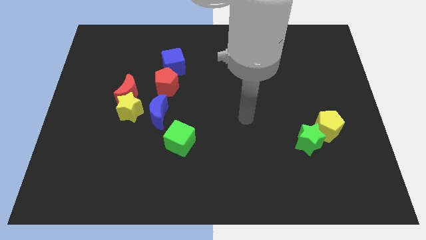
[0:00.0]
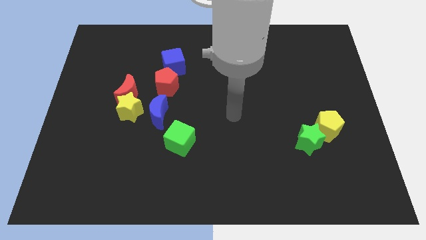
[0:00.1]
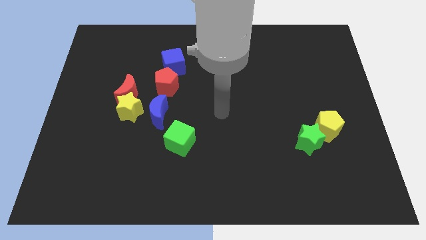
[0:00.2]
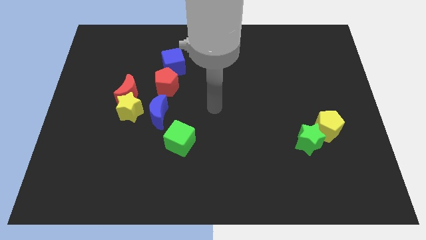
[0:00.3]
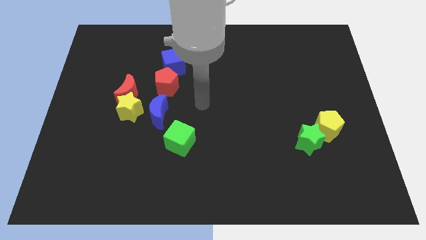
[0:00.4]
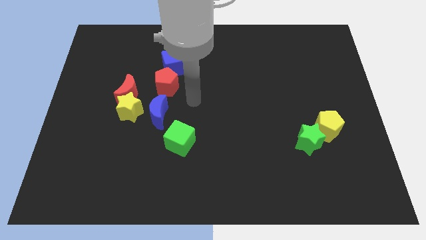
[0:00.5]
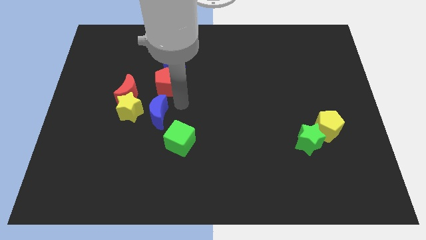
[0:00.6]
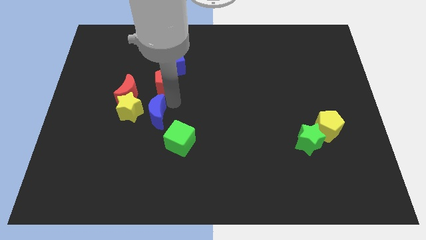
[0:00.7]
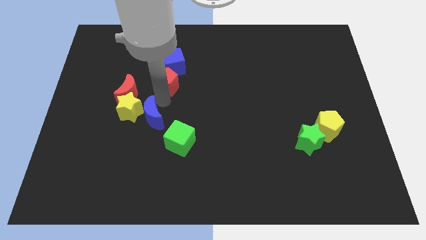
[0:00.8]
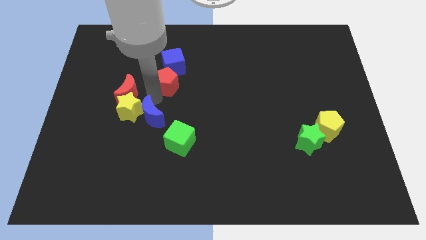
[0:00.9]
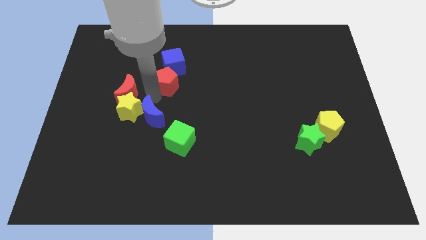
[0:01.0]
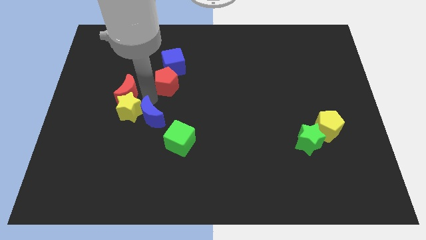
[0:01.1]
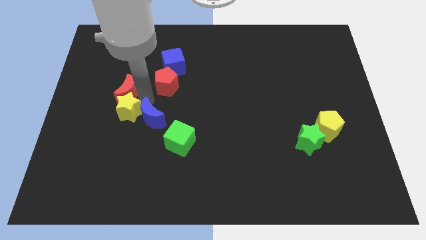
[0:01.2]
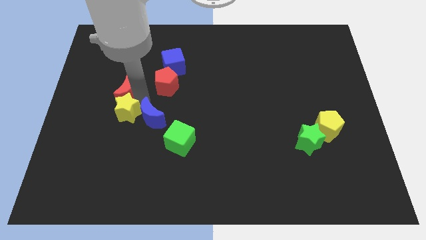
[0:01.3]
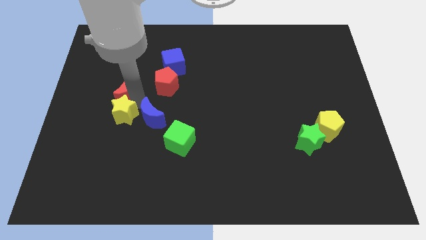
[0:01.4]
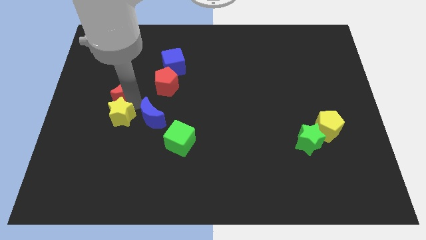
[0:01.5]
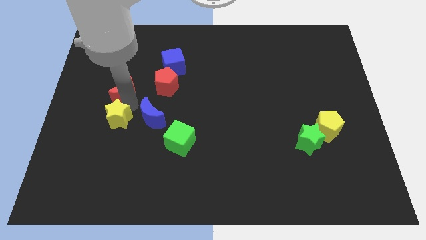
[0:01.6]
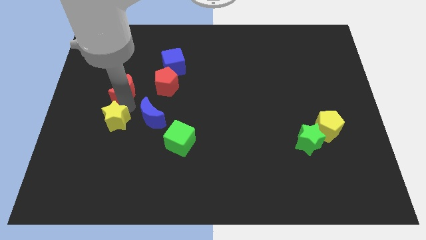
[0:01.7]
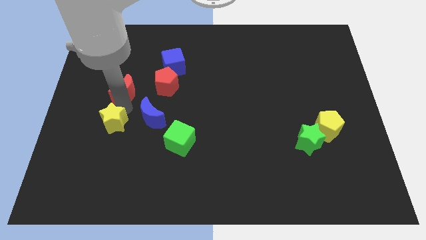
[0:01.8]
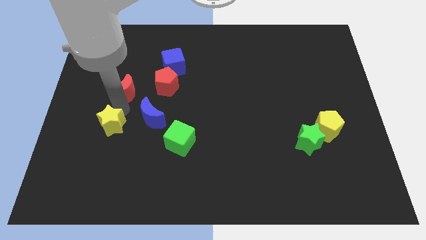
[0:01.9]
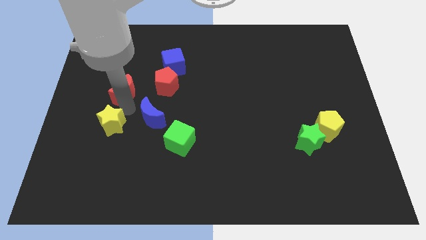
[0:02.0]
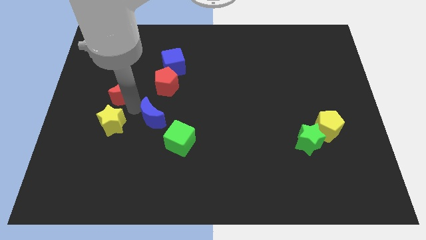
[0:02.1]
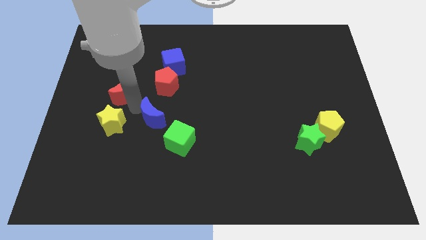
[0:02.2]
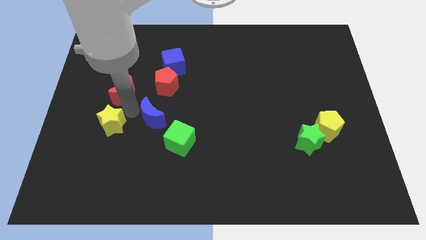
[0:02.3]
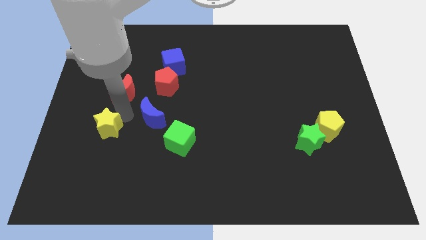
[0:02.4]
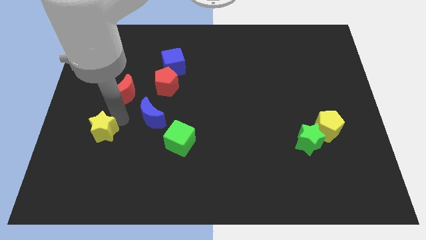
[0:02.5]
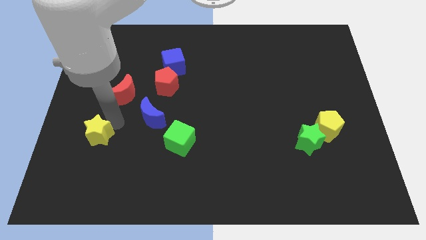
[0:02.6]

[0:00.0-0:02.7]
pull the yellow star apart from the red moon and blue moon

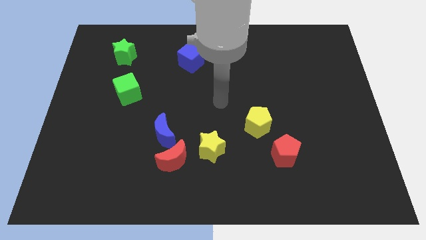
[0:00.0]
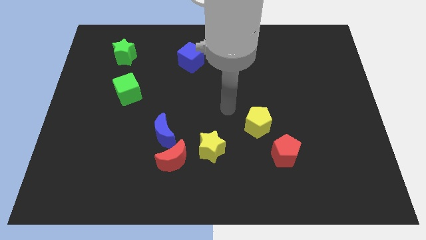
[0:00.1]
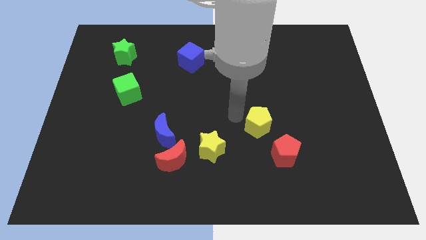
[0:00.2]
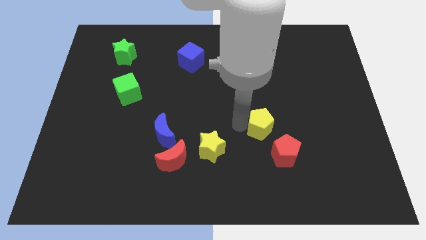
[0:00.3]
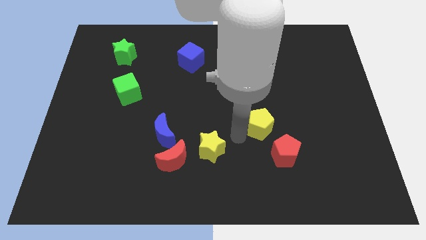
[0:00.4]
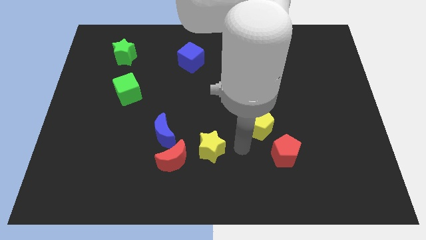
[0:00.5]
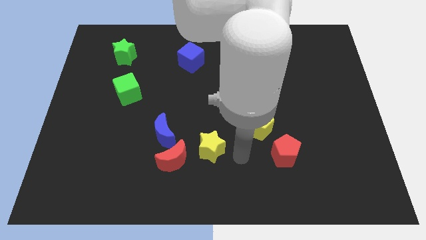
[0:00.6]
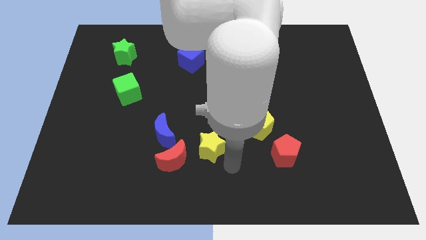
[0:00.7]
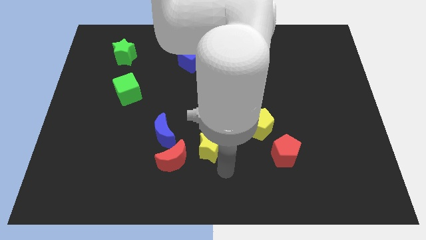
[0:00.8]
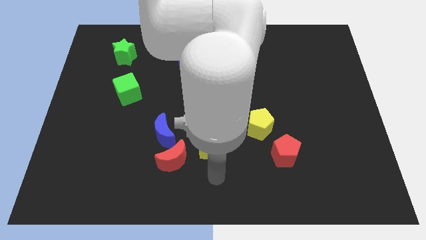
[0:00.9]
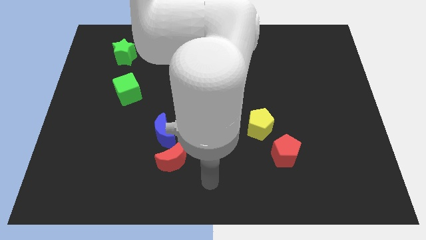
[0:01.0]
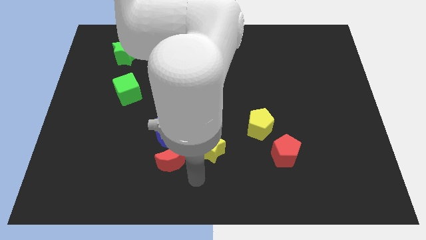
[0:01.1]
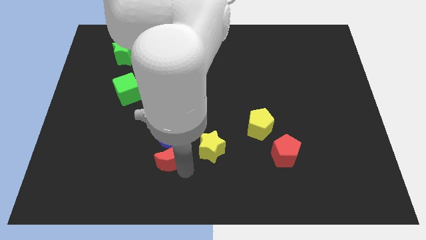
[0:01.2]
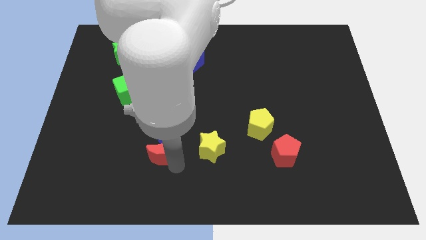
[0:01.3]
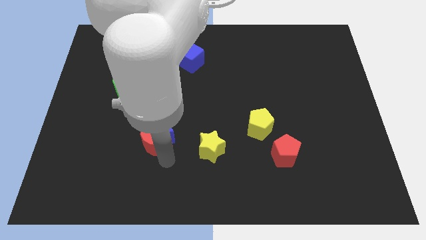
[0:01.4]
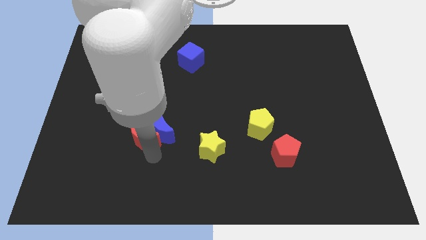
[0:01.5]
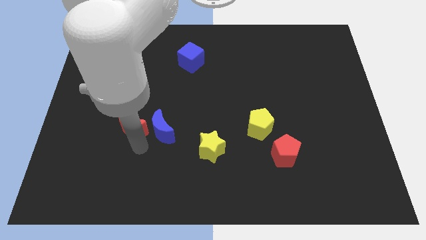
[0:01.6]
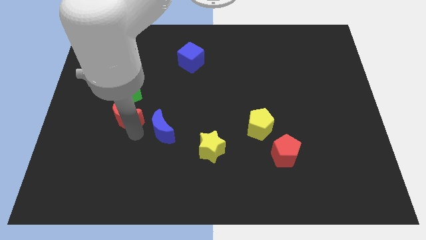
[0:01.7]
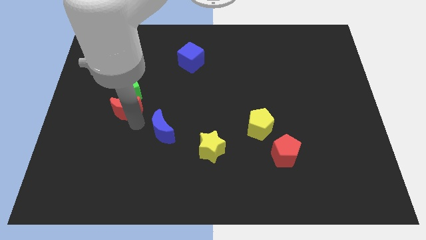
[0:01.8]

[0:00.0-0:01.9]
pull the blue moon apart from the red moon

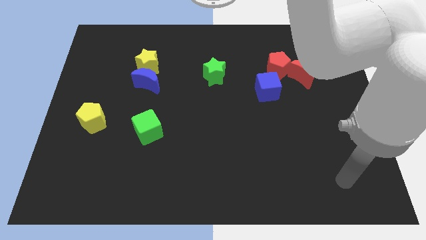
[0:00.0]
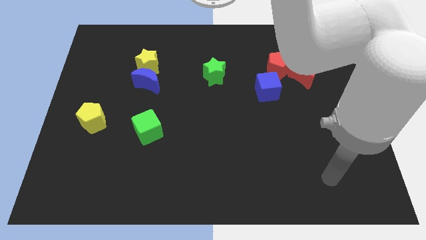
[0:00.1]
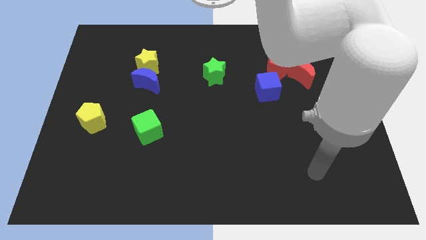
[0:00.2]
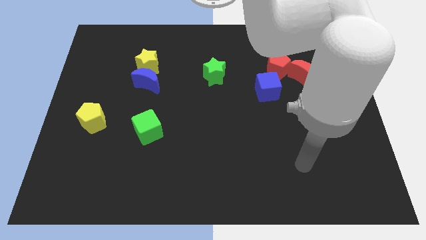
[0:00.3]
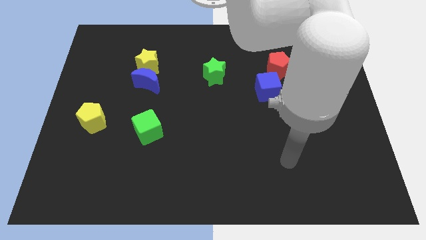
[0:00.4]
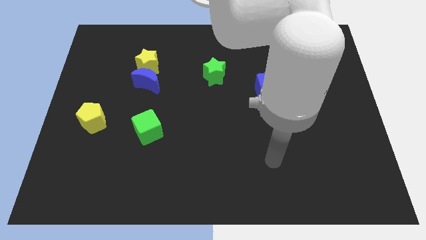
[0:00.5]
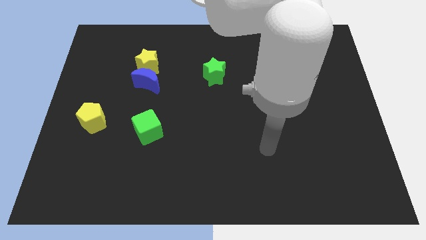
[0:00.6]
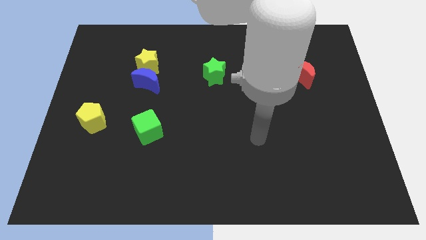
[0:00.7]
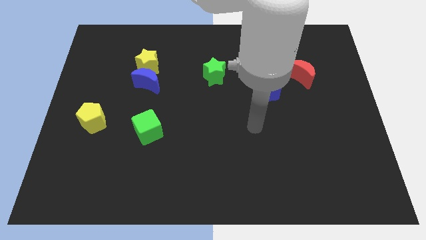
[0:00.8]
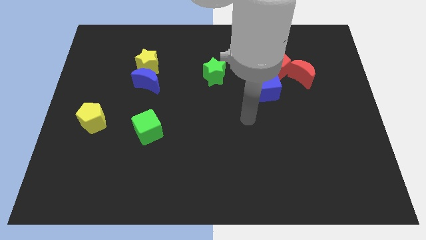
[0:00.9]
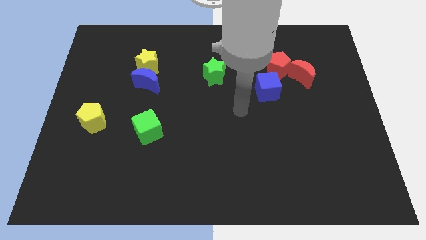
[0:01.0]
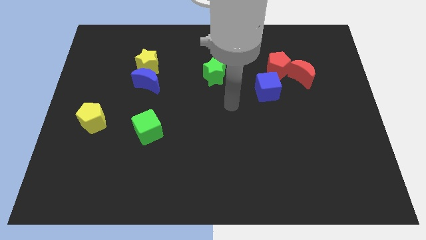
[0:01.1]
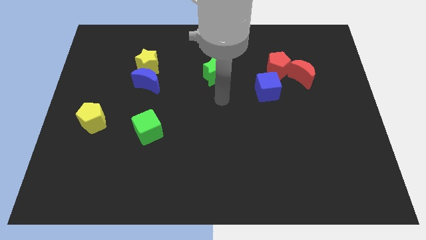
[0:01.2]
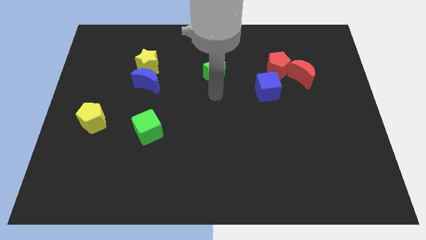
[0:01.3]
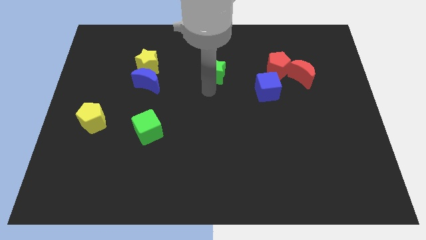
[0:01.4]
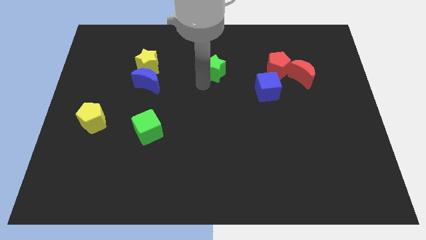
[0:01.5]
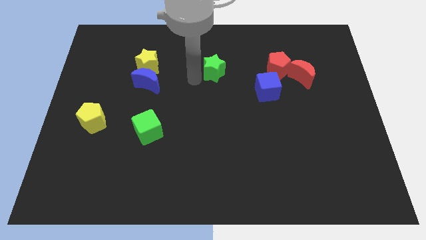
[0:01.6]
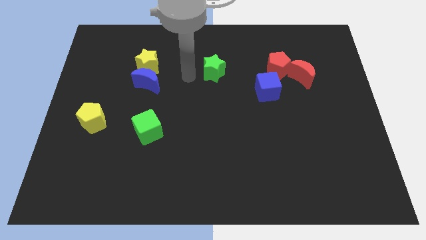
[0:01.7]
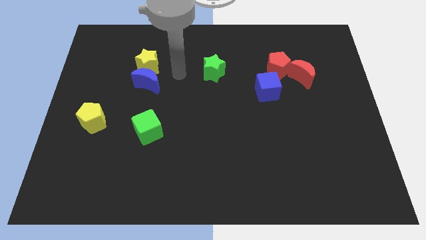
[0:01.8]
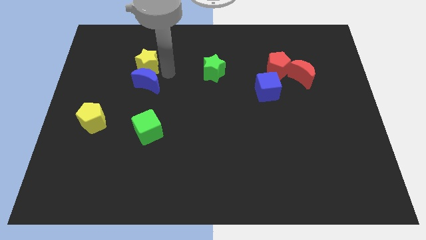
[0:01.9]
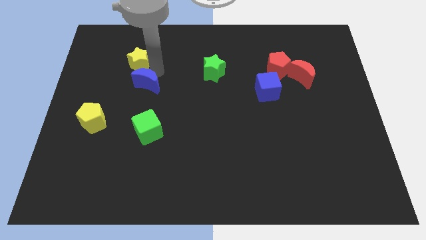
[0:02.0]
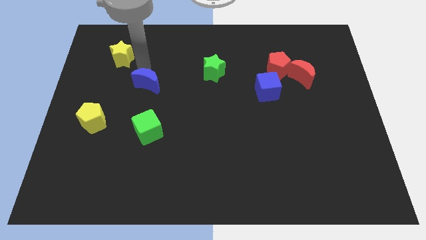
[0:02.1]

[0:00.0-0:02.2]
separate the blue moon from the yellow star

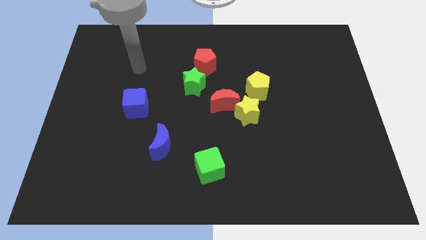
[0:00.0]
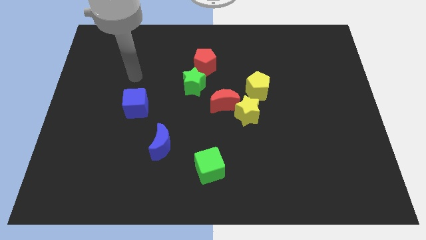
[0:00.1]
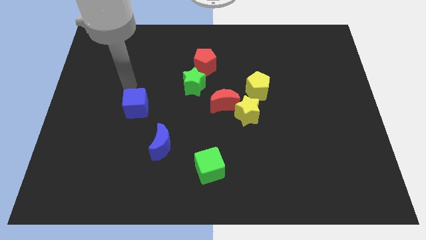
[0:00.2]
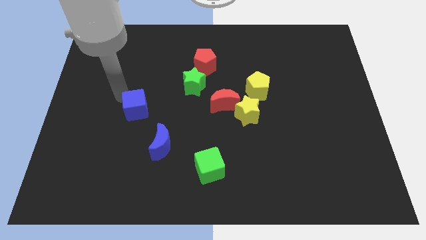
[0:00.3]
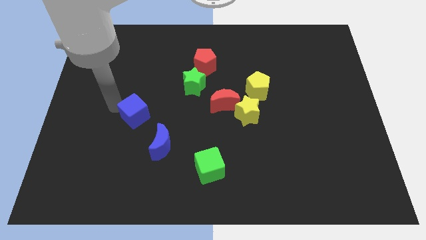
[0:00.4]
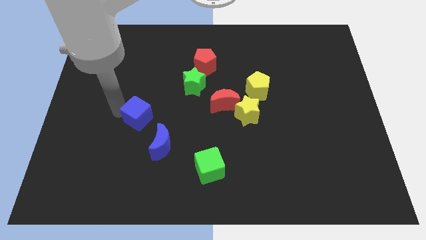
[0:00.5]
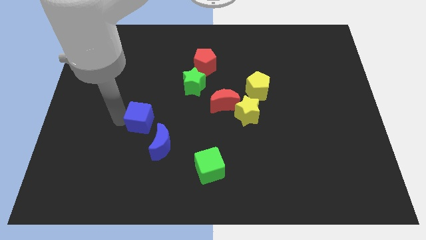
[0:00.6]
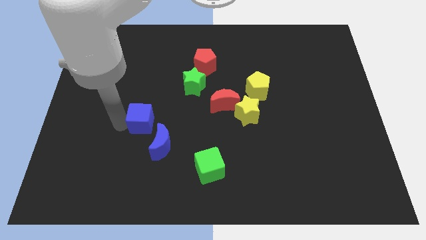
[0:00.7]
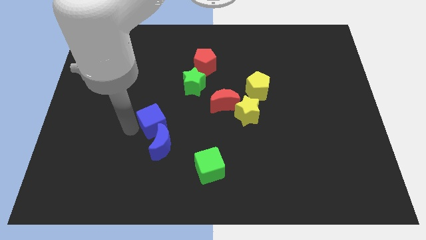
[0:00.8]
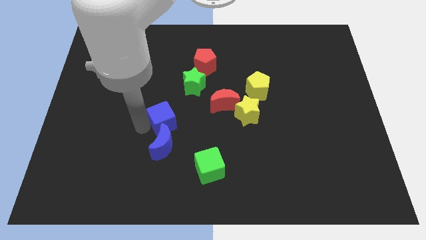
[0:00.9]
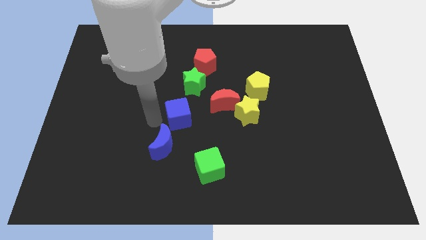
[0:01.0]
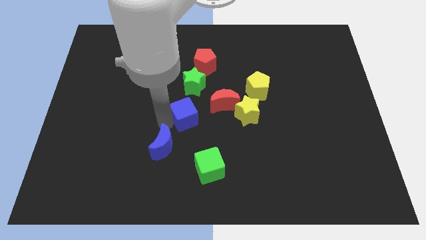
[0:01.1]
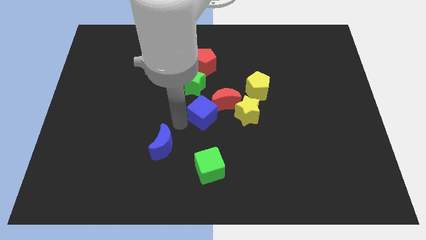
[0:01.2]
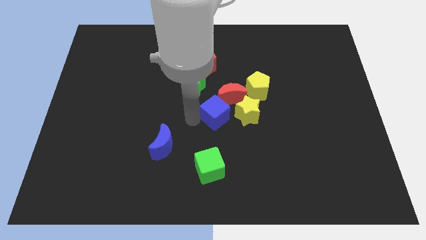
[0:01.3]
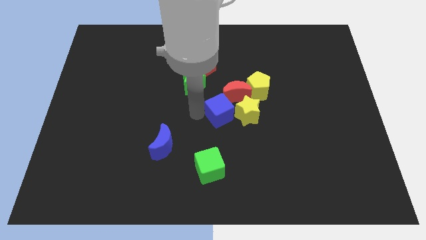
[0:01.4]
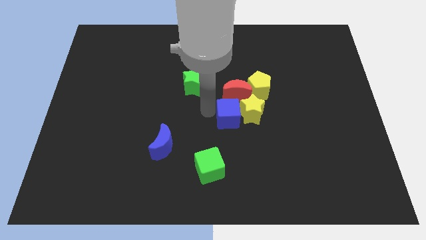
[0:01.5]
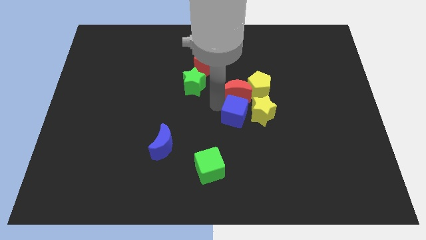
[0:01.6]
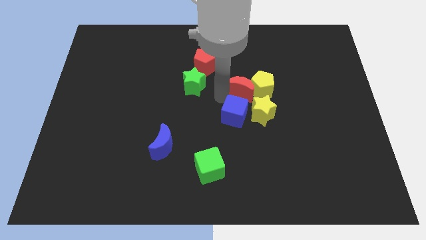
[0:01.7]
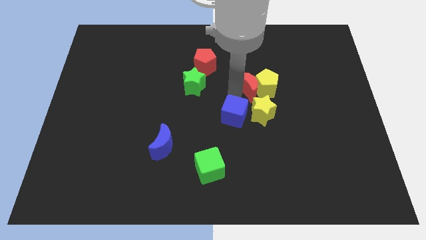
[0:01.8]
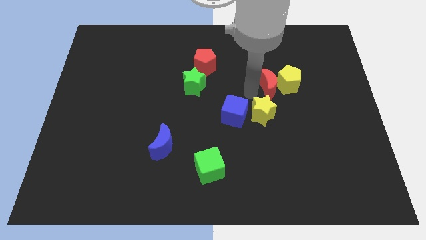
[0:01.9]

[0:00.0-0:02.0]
separate the yellow star from the red moon and yellow pentagon

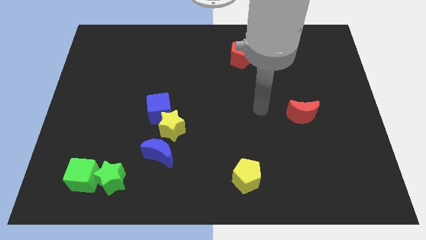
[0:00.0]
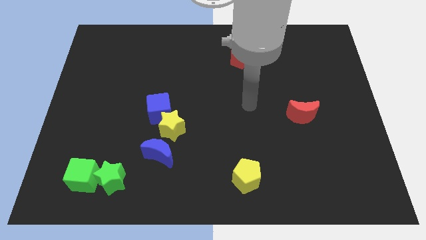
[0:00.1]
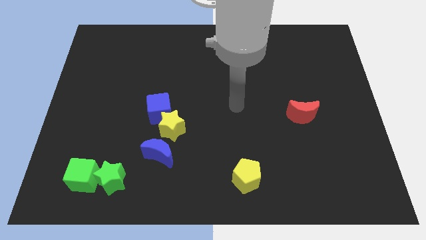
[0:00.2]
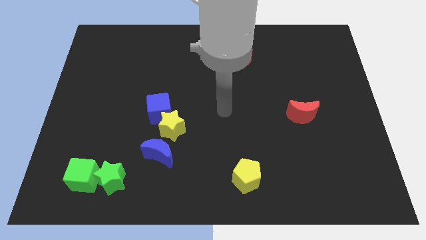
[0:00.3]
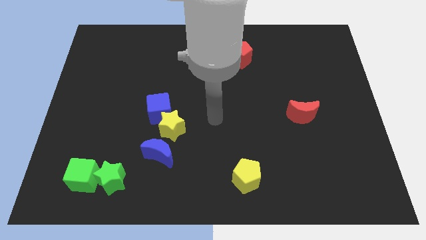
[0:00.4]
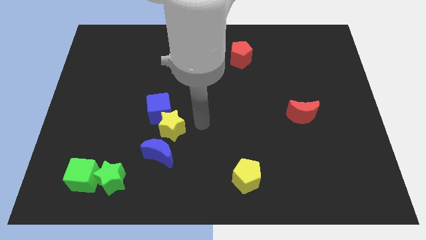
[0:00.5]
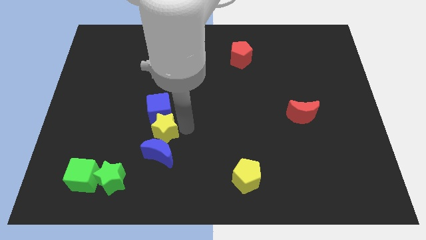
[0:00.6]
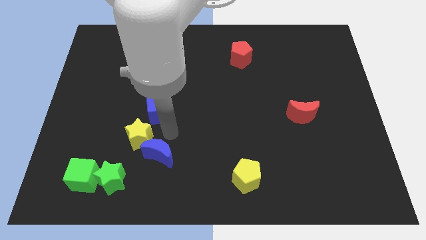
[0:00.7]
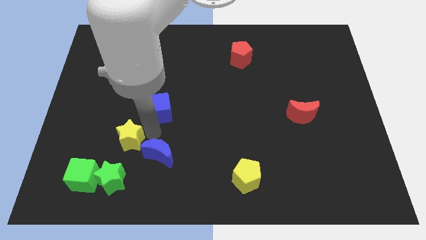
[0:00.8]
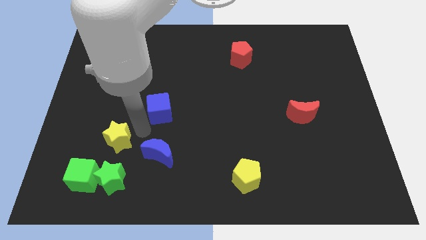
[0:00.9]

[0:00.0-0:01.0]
separate the blue cube from the yellow star
